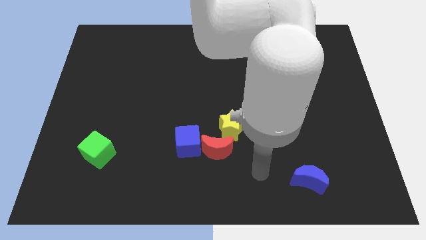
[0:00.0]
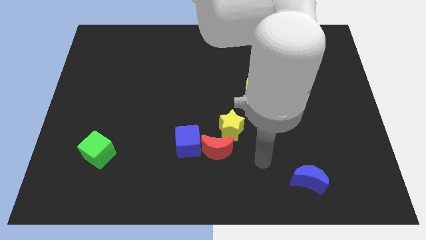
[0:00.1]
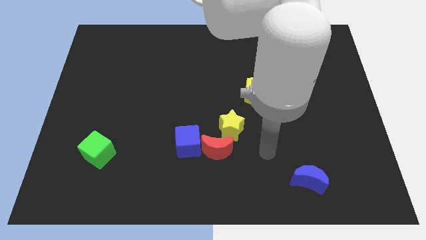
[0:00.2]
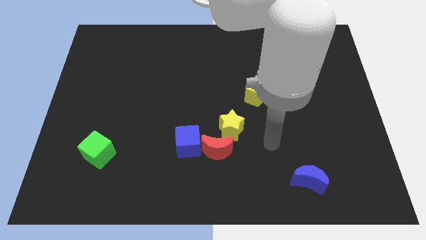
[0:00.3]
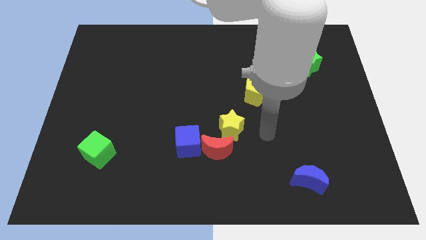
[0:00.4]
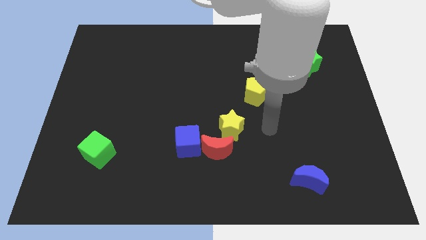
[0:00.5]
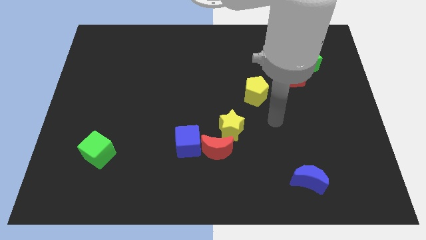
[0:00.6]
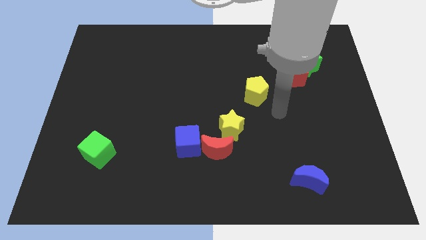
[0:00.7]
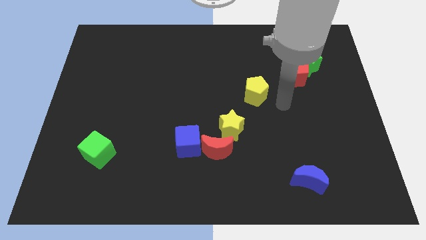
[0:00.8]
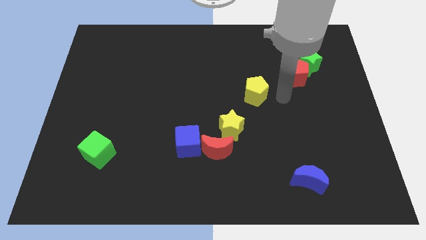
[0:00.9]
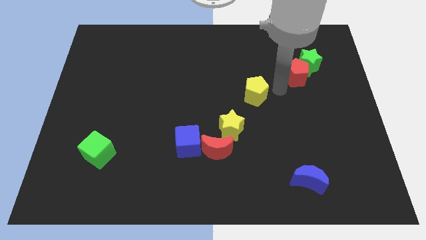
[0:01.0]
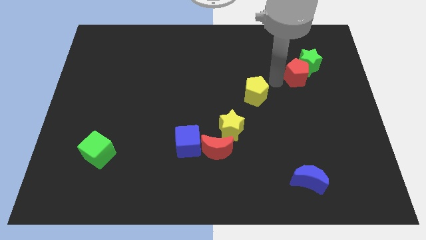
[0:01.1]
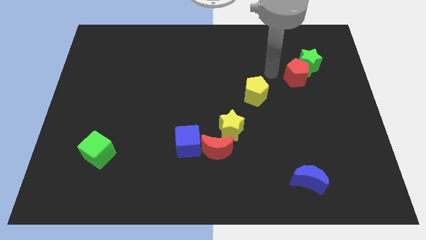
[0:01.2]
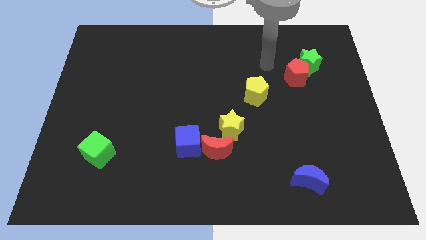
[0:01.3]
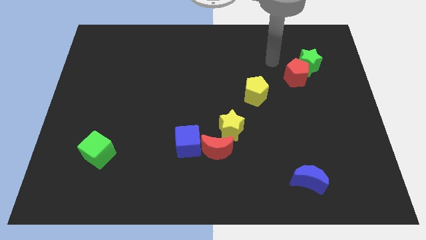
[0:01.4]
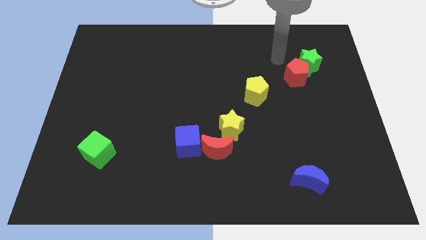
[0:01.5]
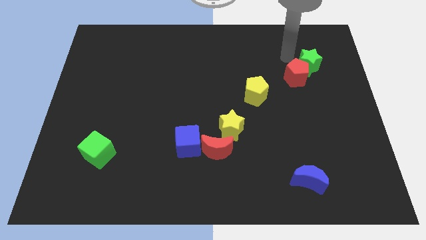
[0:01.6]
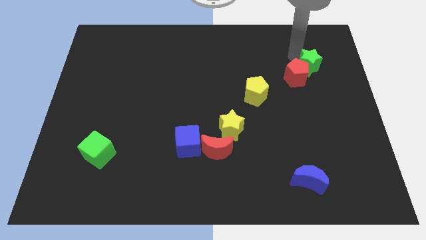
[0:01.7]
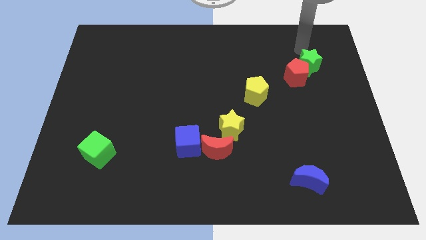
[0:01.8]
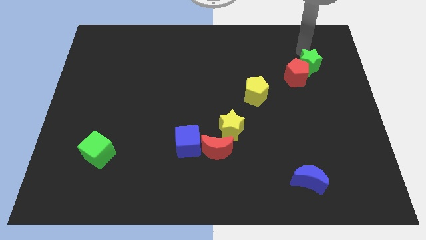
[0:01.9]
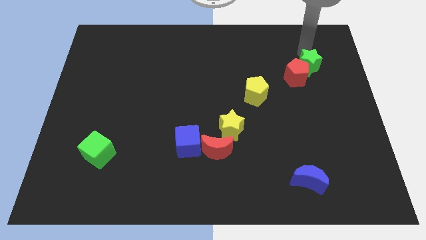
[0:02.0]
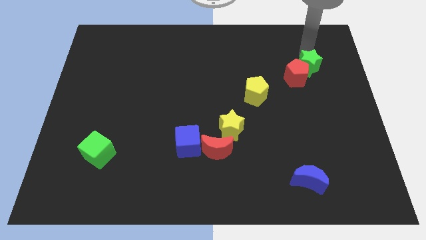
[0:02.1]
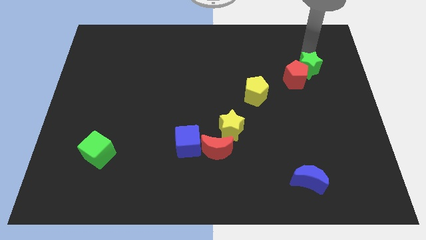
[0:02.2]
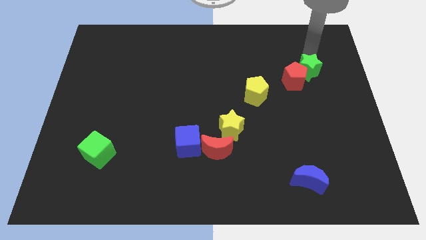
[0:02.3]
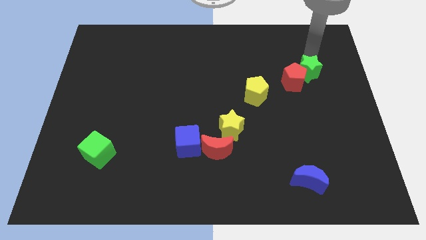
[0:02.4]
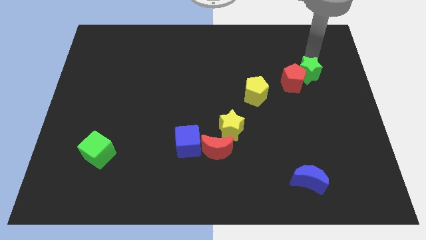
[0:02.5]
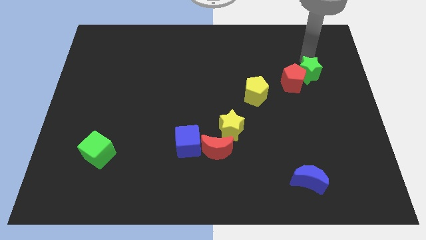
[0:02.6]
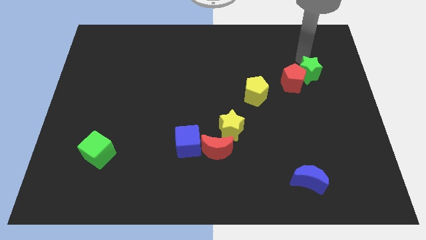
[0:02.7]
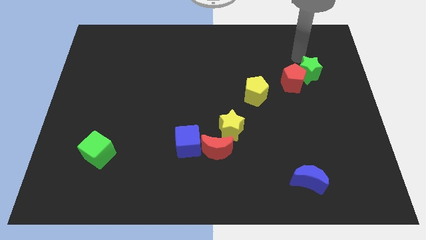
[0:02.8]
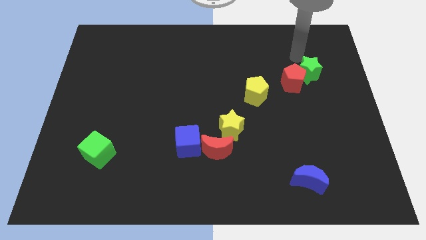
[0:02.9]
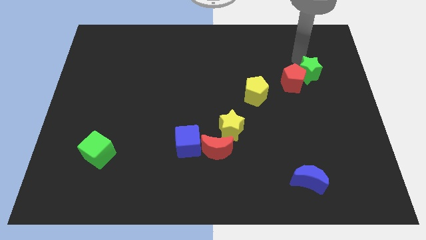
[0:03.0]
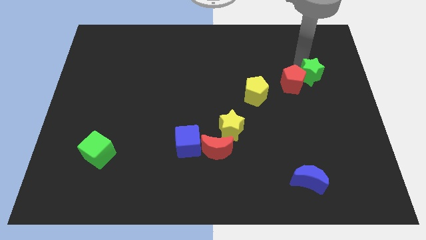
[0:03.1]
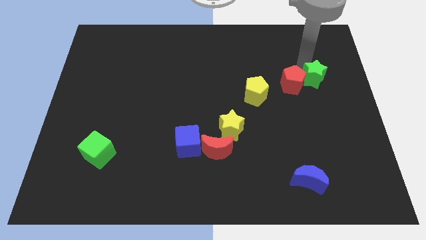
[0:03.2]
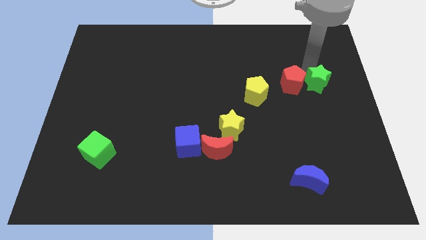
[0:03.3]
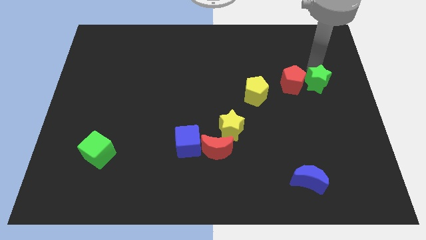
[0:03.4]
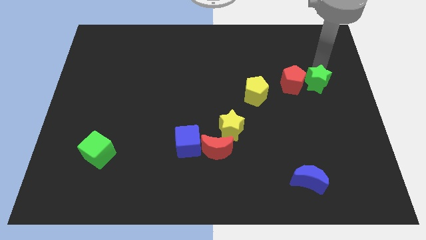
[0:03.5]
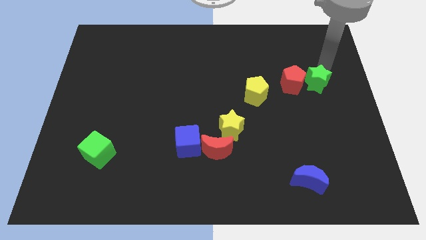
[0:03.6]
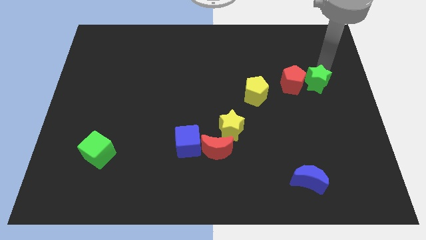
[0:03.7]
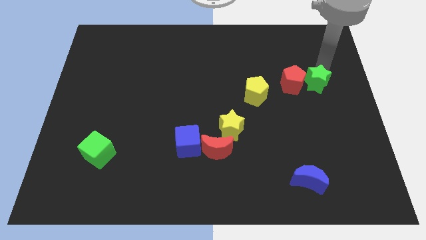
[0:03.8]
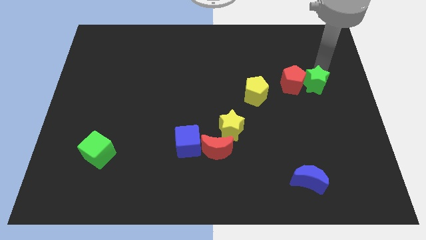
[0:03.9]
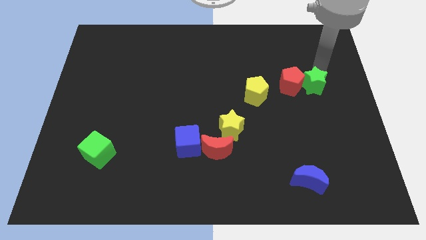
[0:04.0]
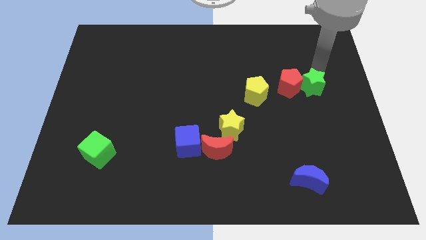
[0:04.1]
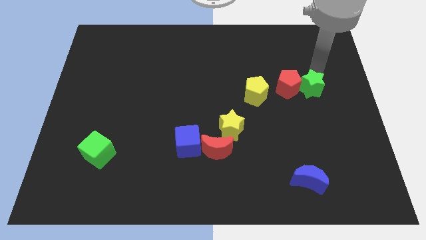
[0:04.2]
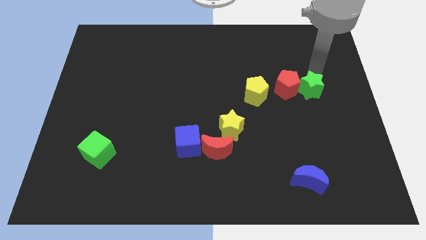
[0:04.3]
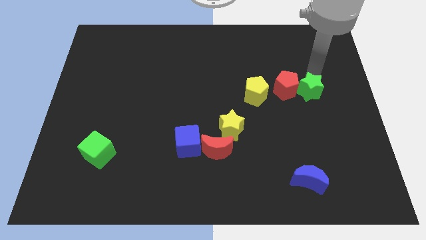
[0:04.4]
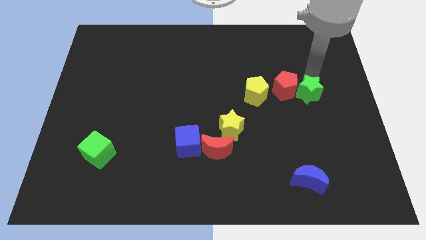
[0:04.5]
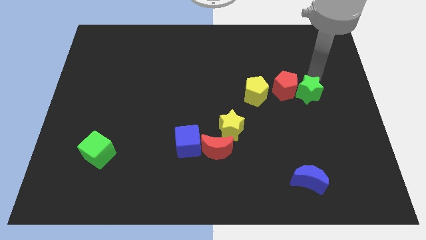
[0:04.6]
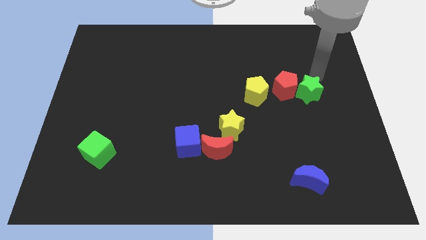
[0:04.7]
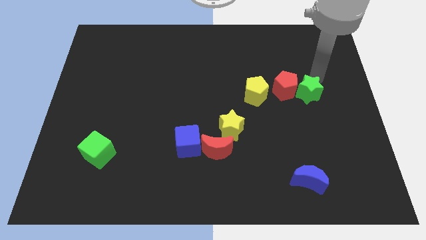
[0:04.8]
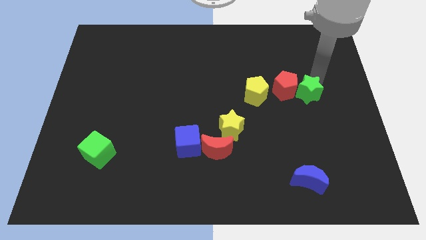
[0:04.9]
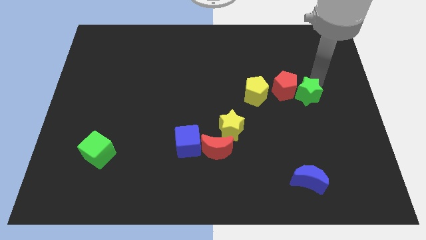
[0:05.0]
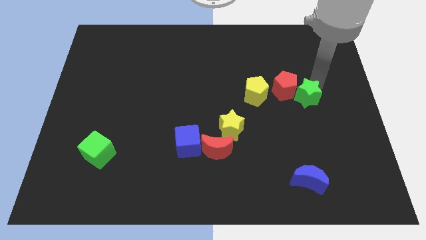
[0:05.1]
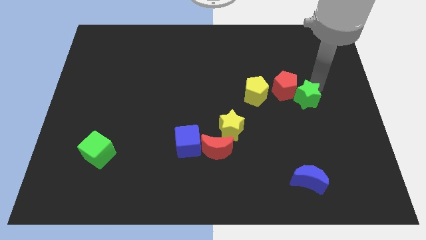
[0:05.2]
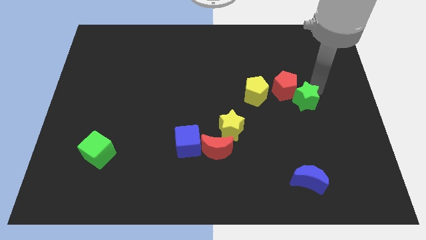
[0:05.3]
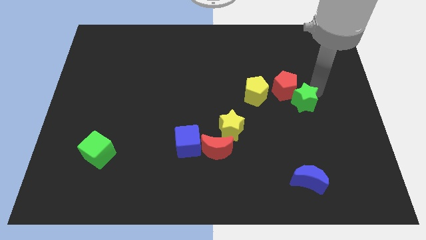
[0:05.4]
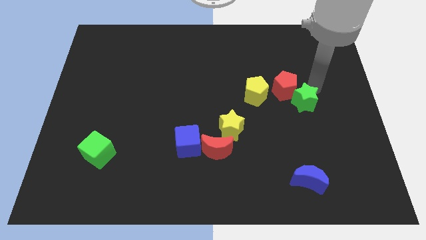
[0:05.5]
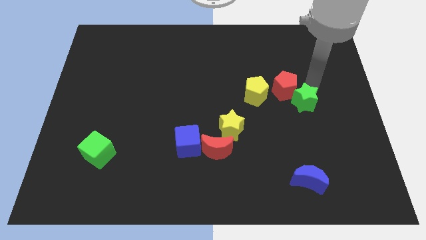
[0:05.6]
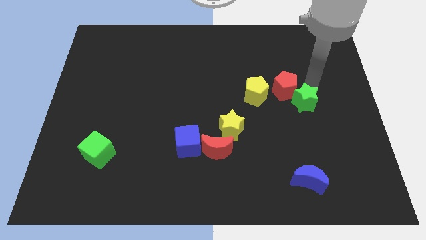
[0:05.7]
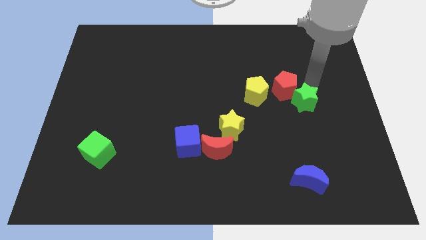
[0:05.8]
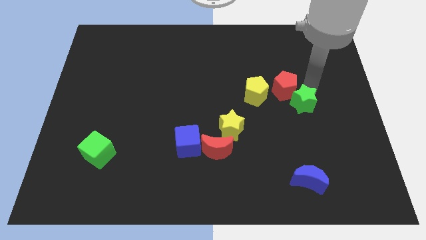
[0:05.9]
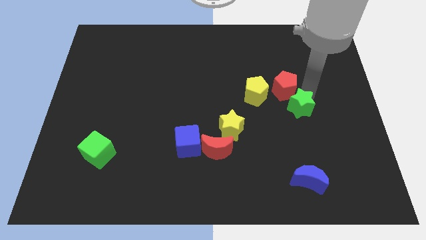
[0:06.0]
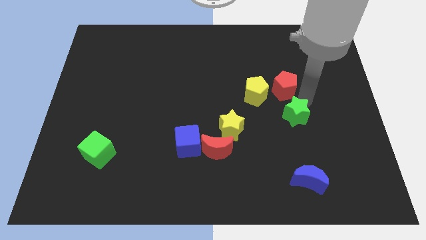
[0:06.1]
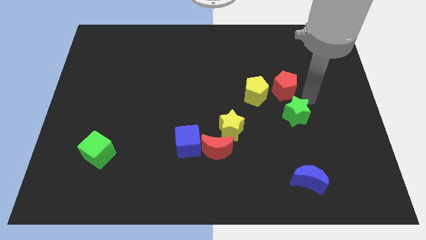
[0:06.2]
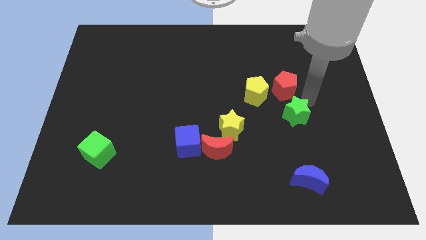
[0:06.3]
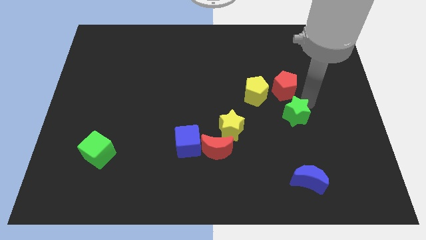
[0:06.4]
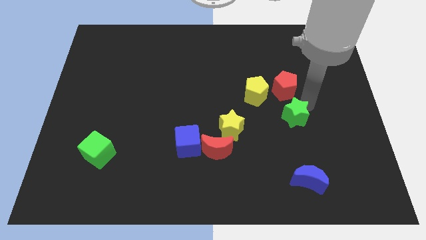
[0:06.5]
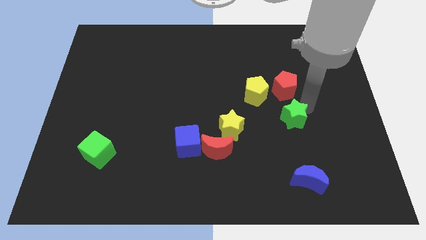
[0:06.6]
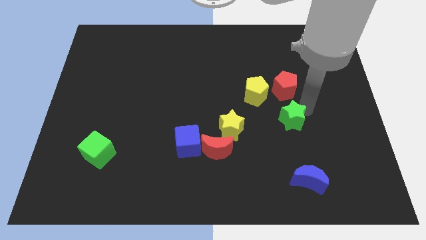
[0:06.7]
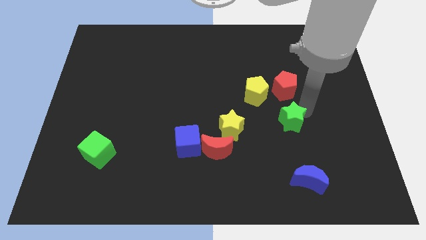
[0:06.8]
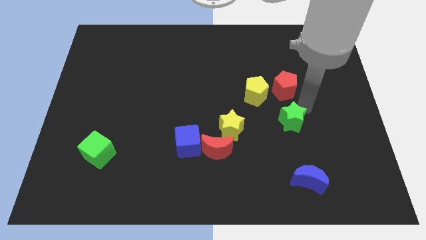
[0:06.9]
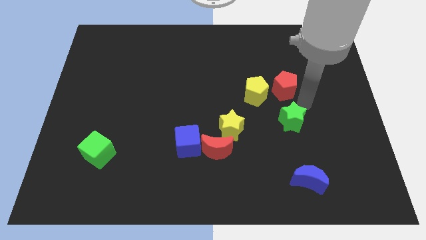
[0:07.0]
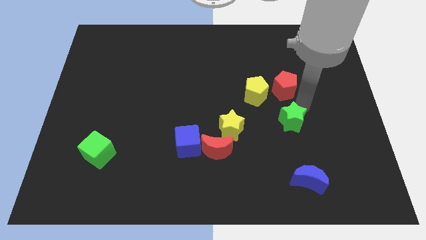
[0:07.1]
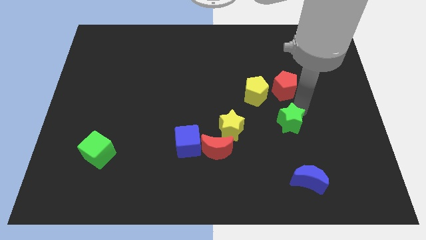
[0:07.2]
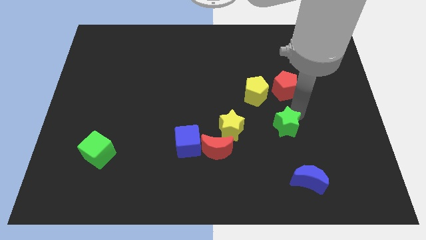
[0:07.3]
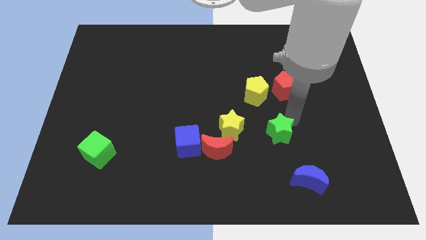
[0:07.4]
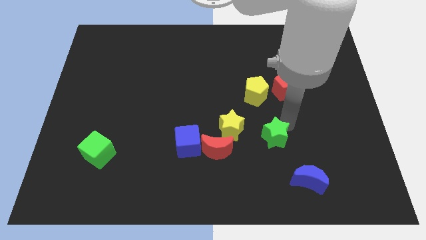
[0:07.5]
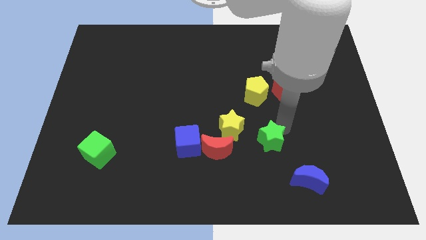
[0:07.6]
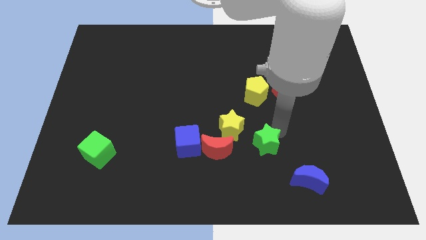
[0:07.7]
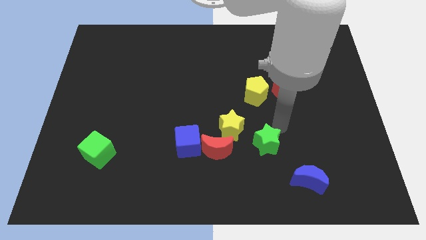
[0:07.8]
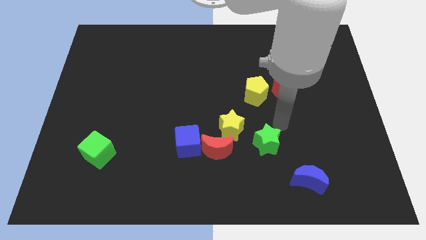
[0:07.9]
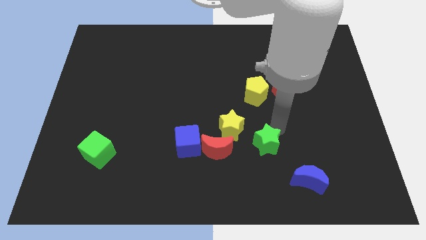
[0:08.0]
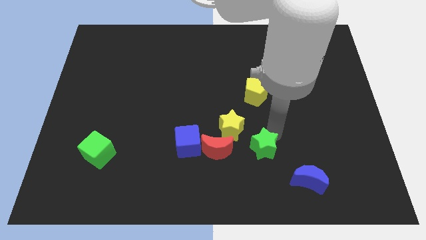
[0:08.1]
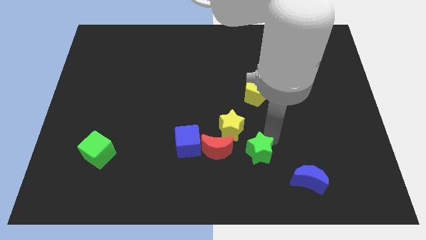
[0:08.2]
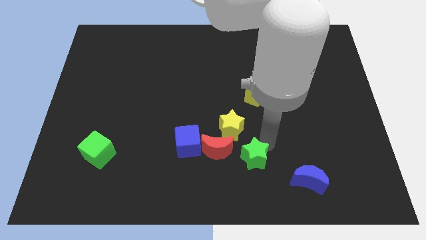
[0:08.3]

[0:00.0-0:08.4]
push the green star to the bottom right side of the red moon
